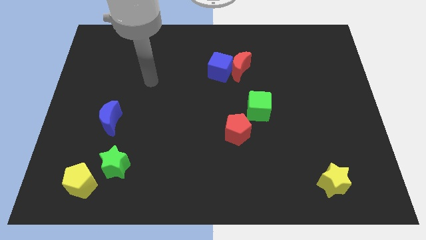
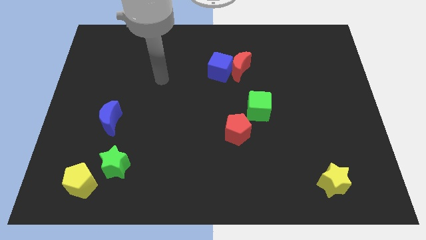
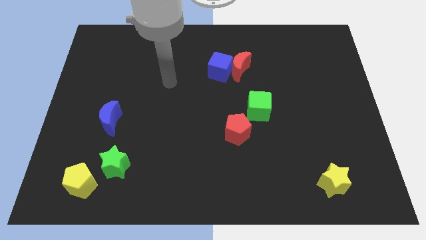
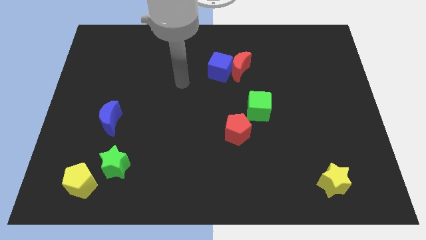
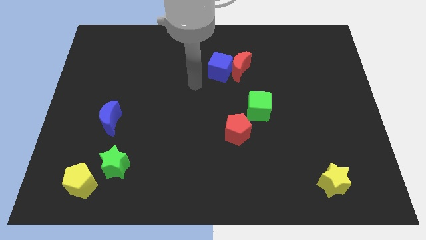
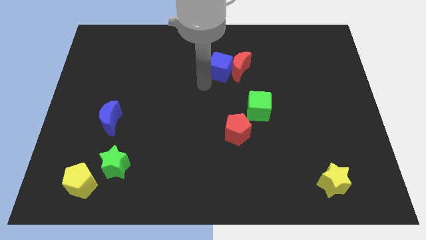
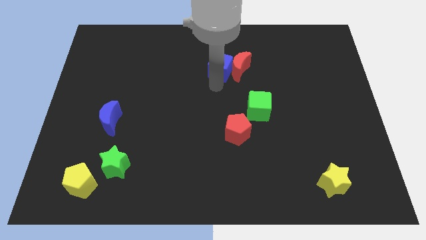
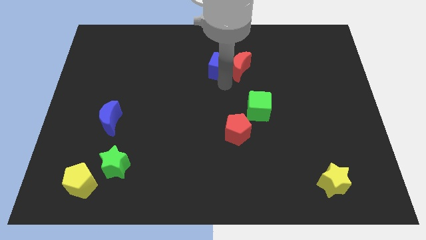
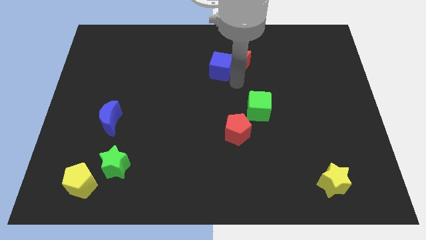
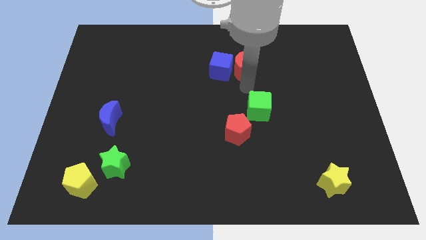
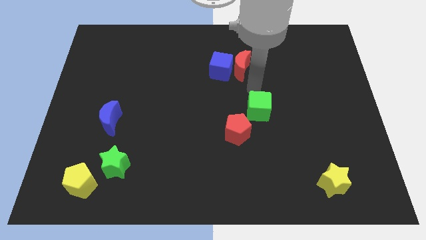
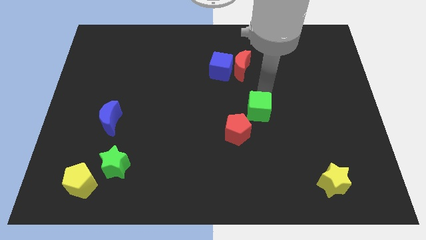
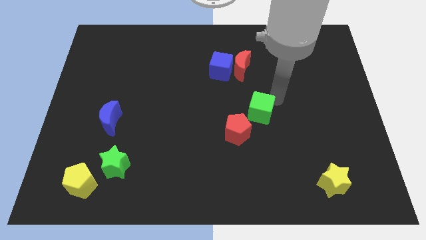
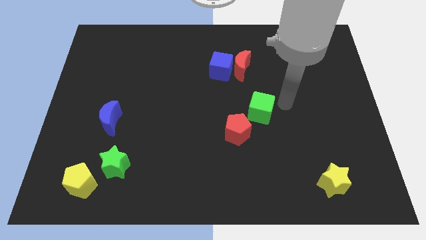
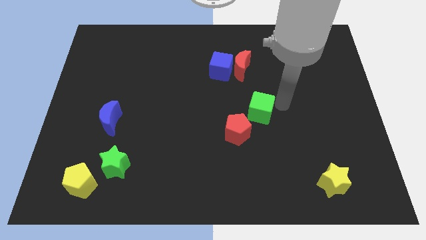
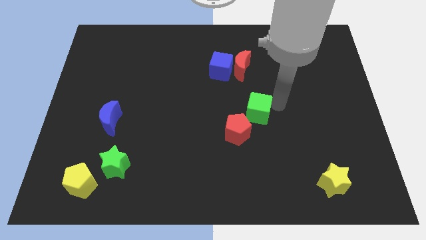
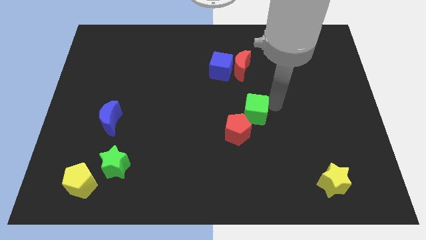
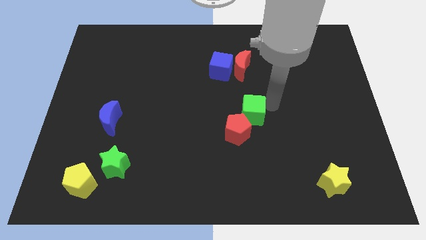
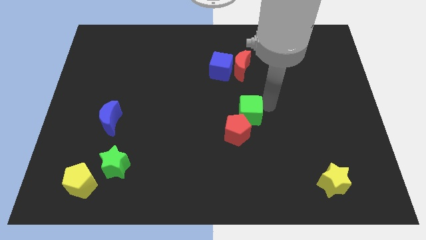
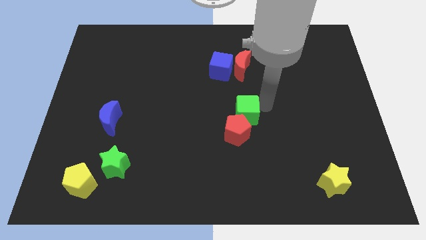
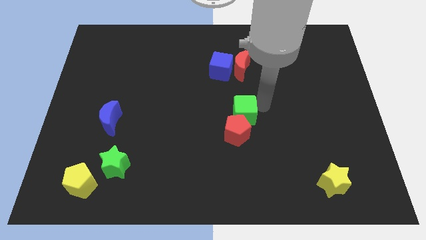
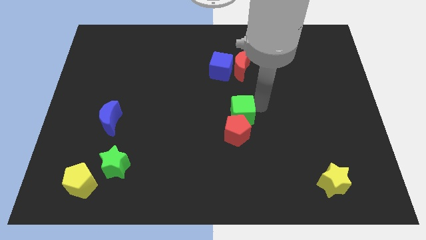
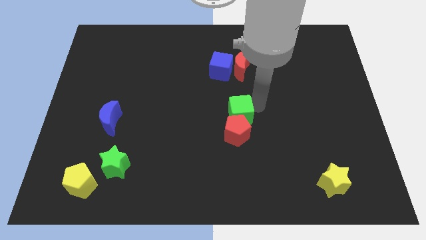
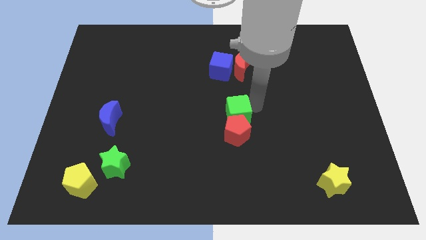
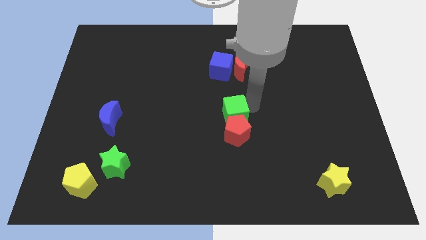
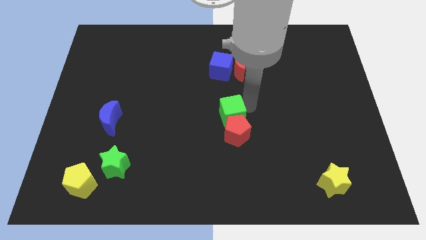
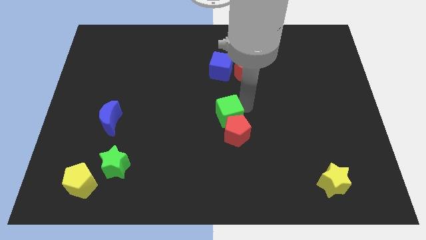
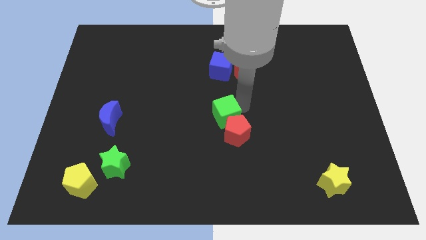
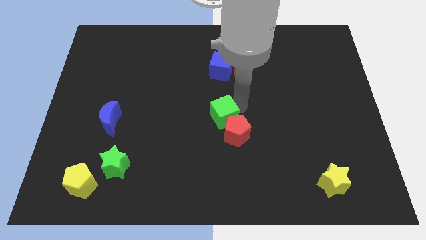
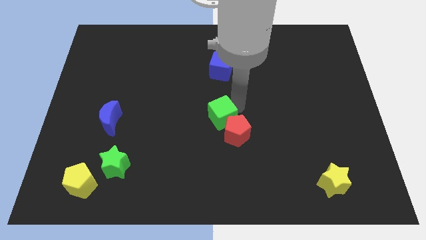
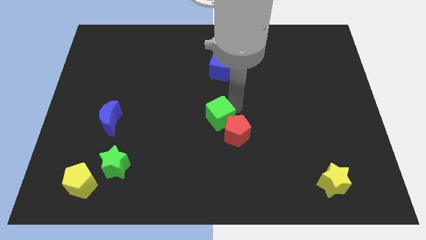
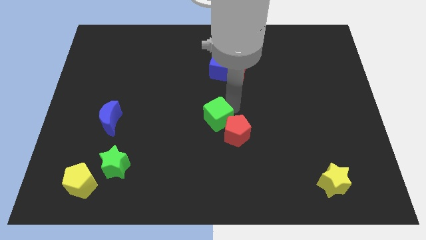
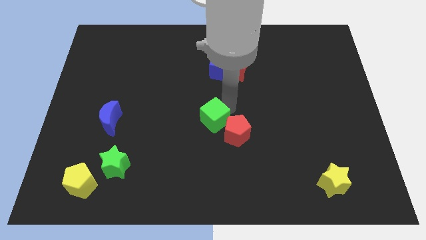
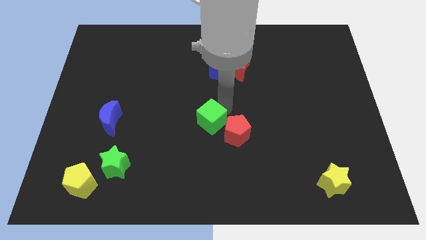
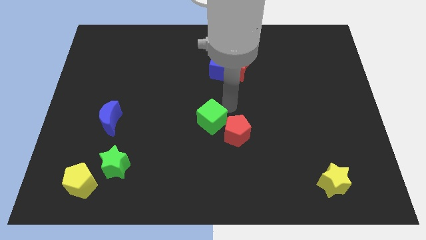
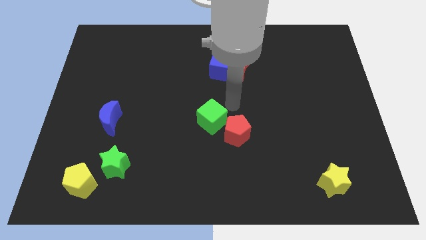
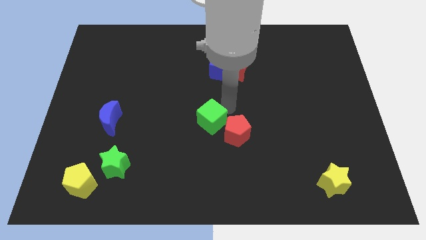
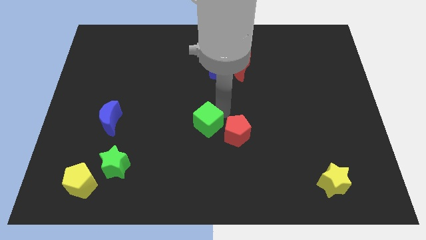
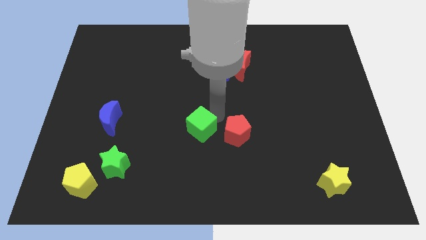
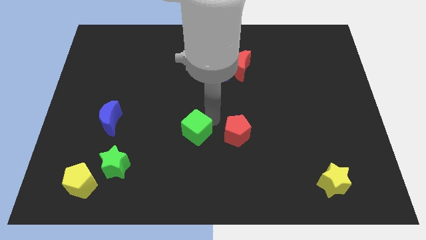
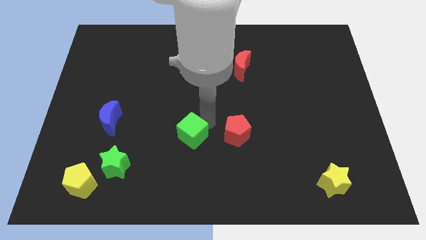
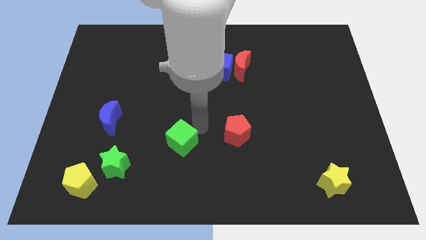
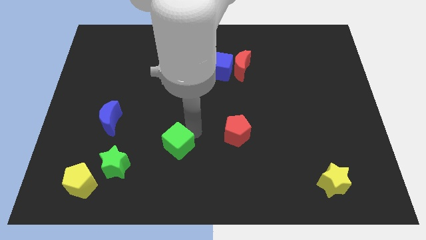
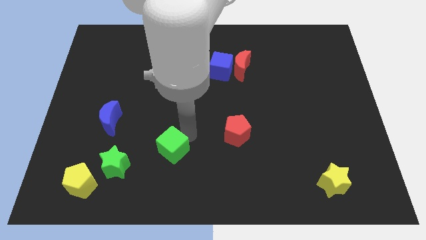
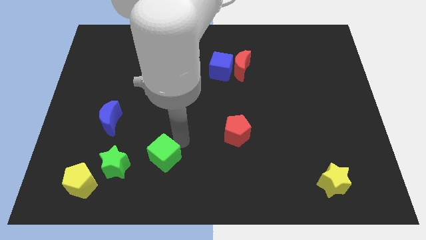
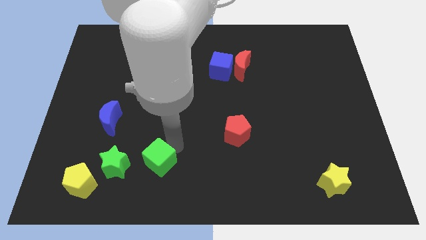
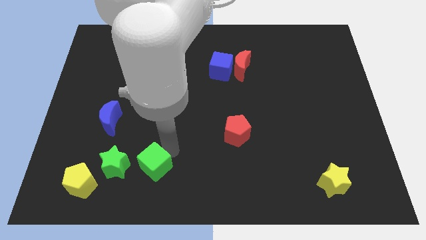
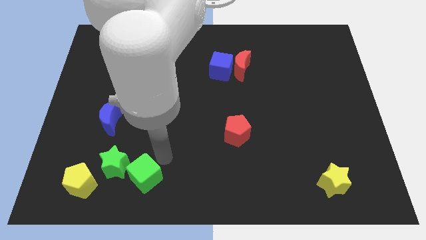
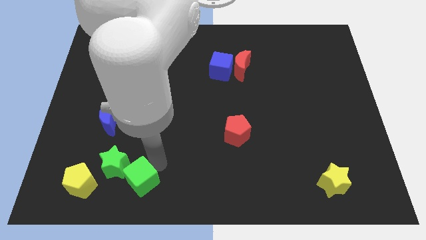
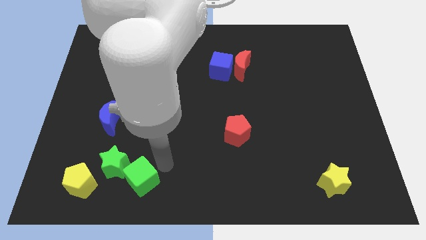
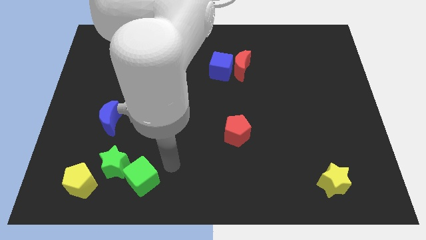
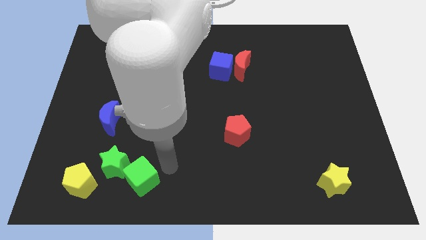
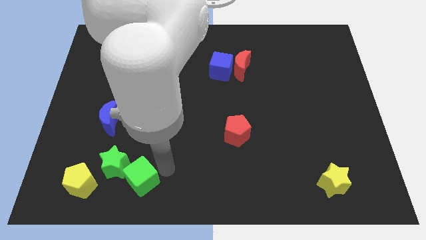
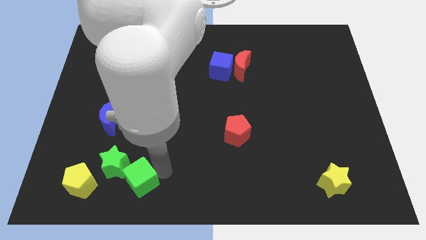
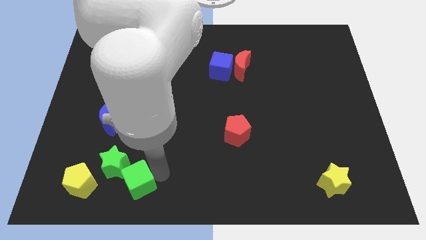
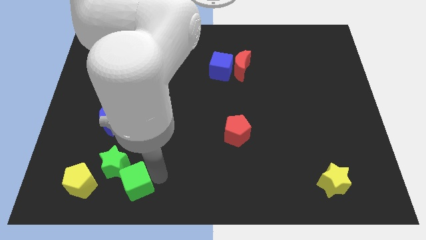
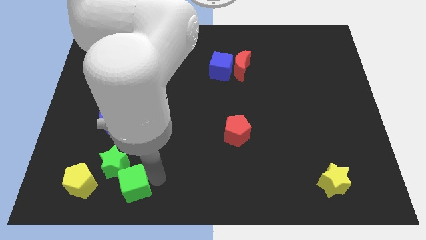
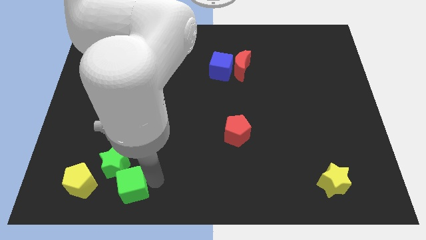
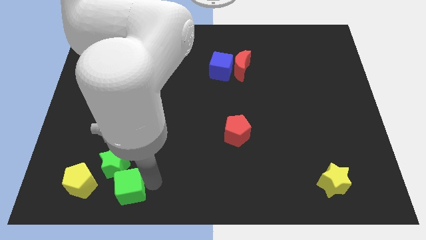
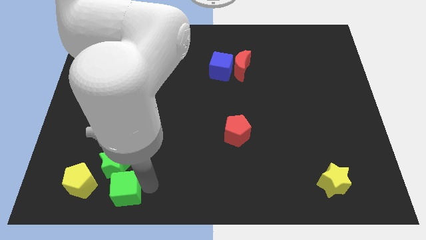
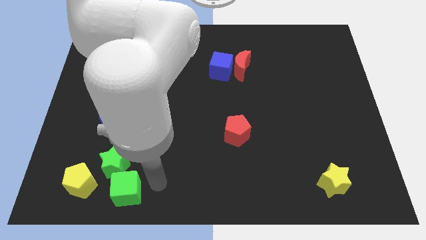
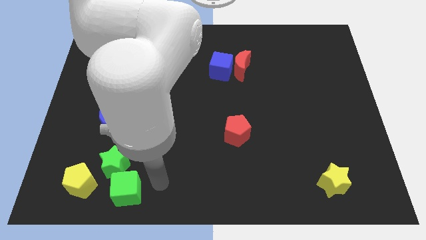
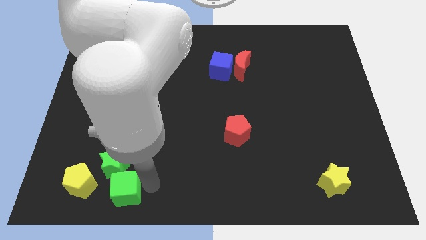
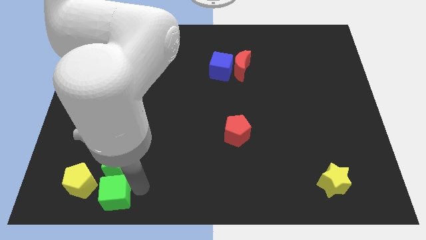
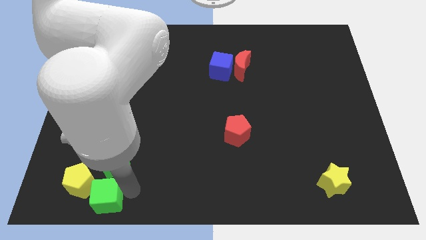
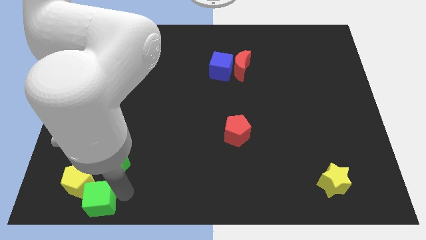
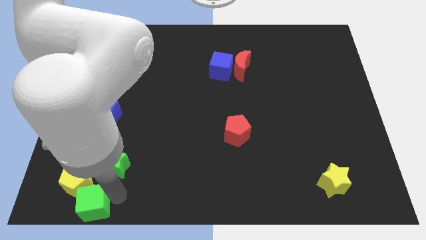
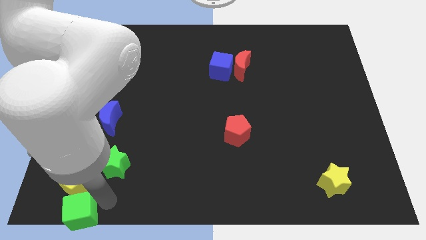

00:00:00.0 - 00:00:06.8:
move the green cube to the bottom left of the board
